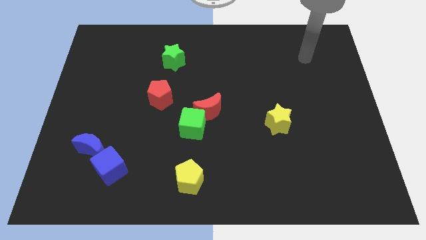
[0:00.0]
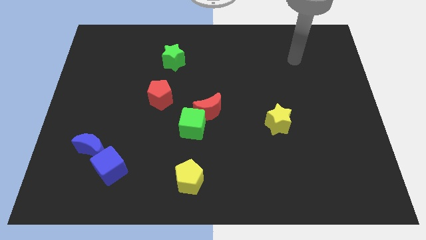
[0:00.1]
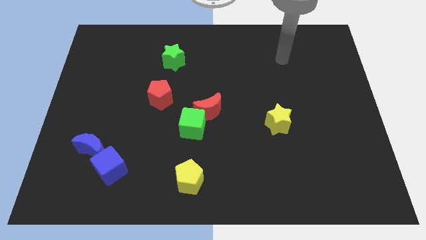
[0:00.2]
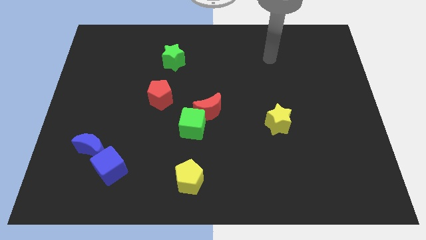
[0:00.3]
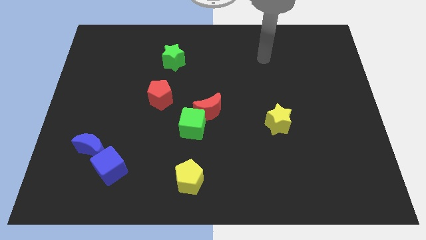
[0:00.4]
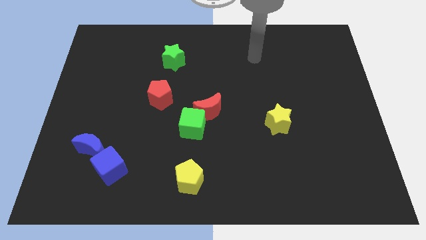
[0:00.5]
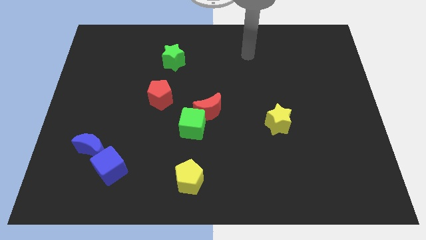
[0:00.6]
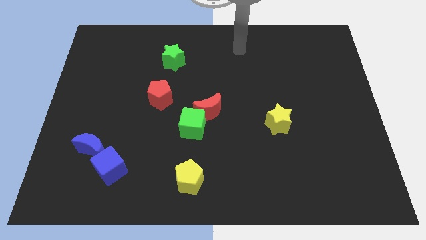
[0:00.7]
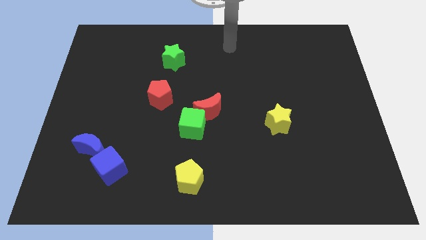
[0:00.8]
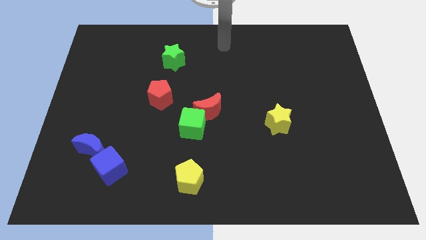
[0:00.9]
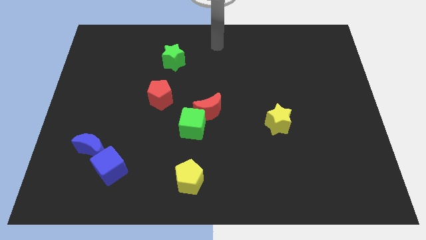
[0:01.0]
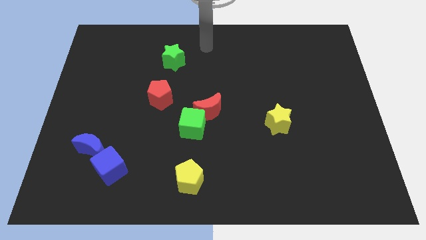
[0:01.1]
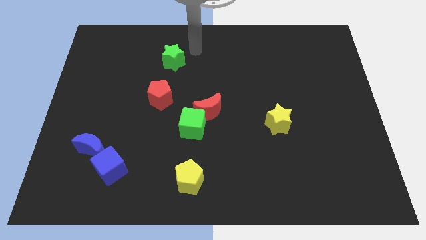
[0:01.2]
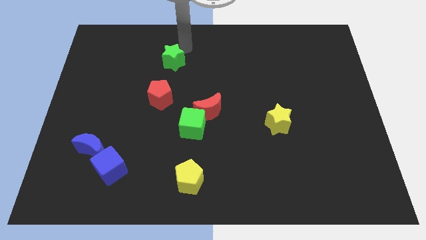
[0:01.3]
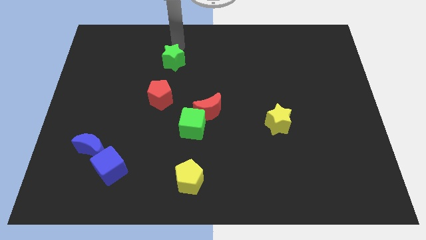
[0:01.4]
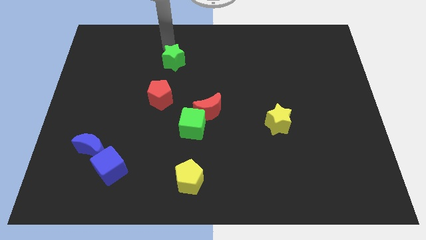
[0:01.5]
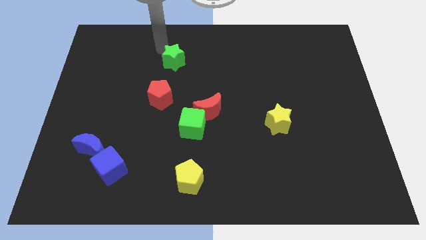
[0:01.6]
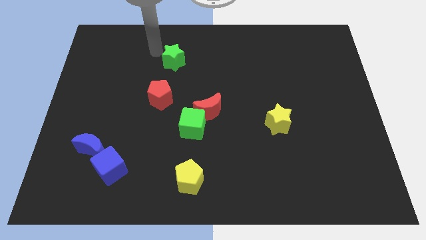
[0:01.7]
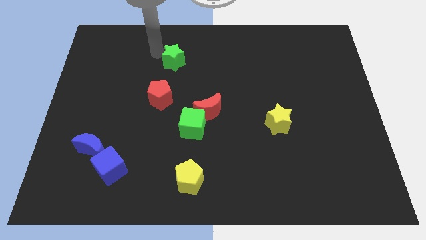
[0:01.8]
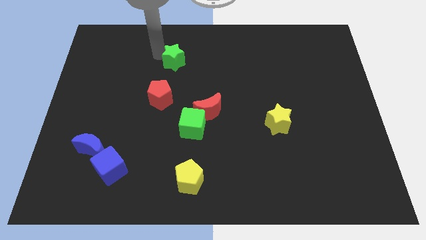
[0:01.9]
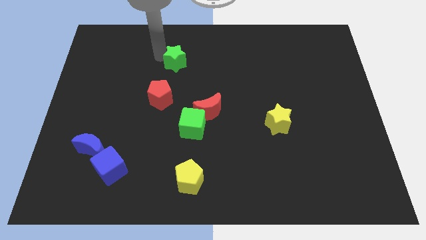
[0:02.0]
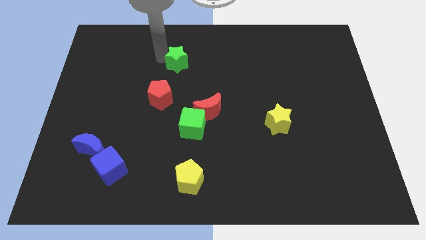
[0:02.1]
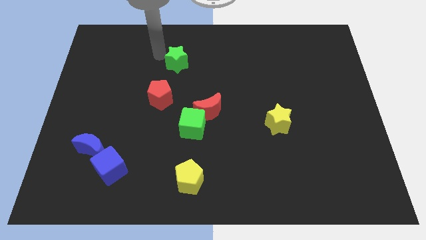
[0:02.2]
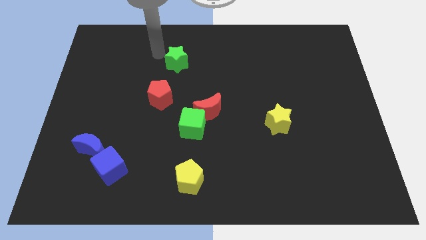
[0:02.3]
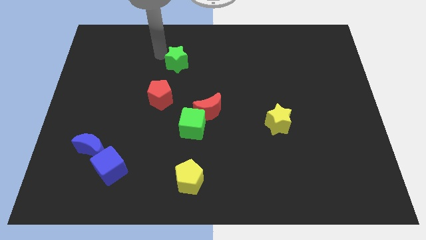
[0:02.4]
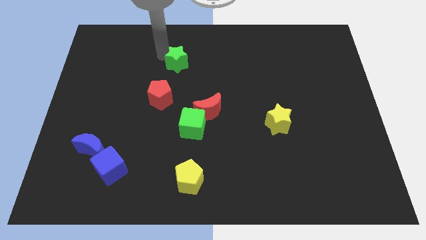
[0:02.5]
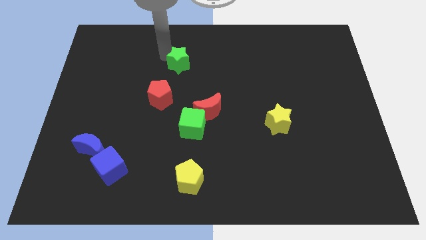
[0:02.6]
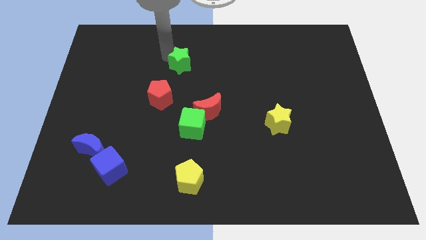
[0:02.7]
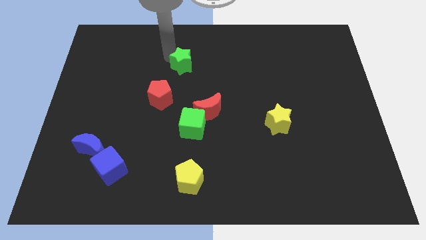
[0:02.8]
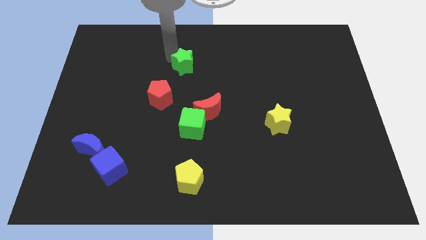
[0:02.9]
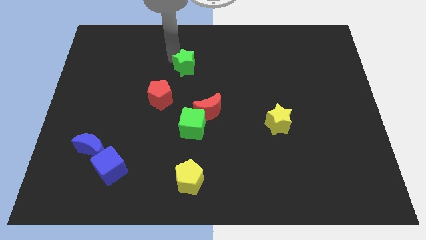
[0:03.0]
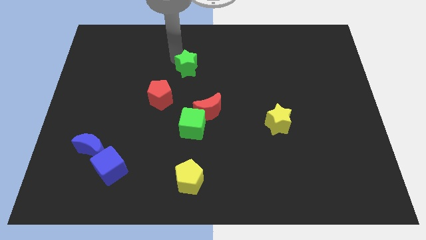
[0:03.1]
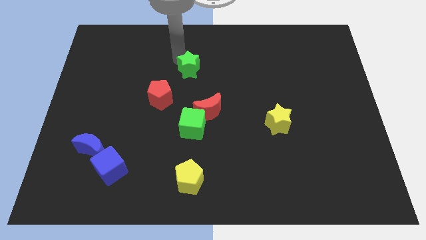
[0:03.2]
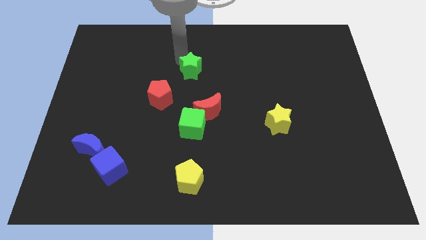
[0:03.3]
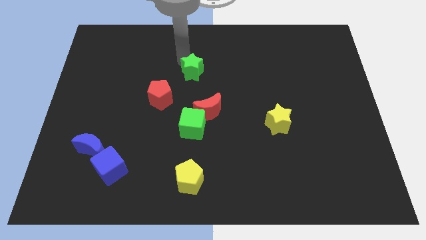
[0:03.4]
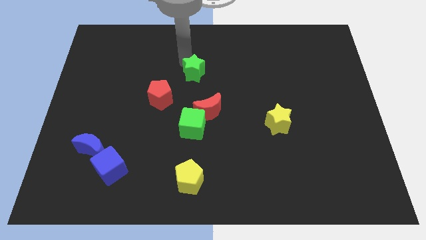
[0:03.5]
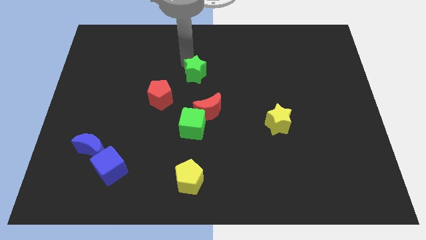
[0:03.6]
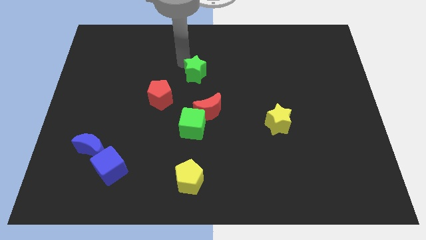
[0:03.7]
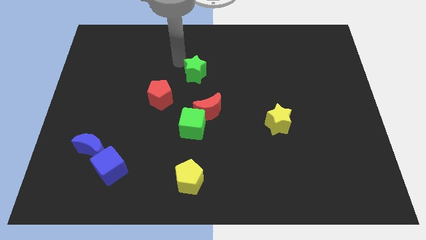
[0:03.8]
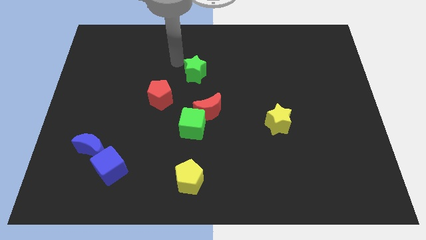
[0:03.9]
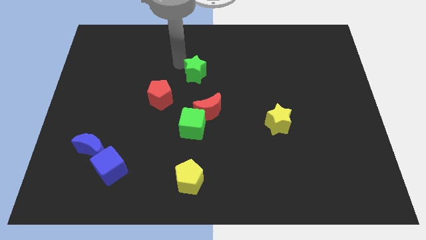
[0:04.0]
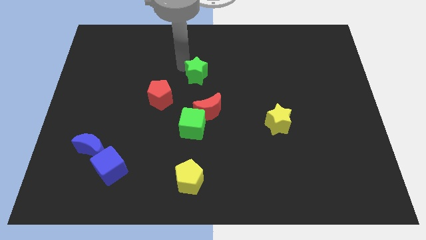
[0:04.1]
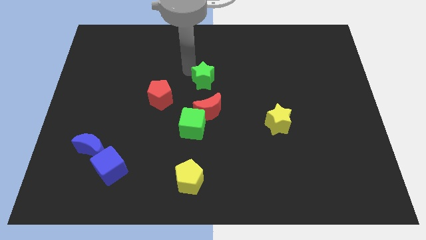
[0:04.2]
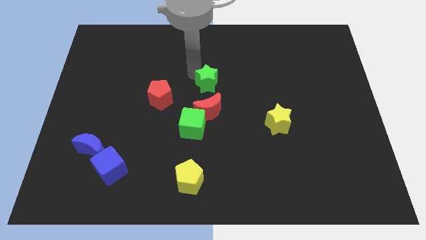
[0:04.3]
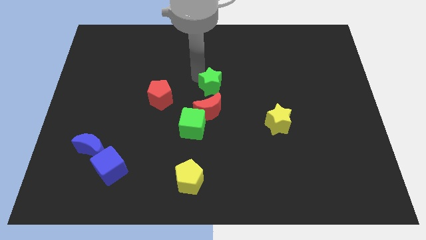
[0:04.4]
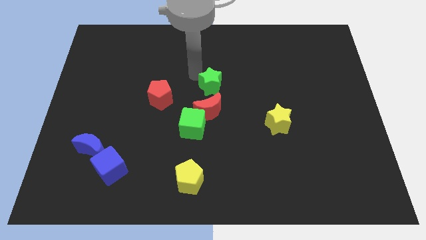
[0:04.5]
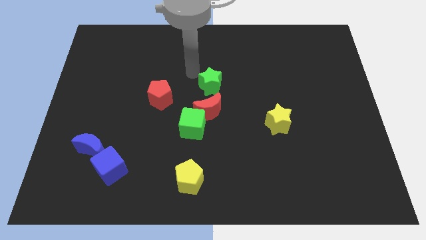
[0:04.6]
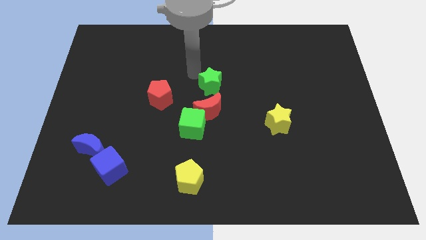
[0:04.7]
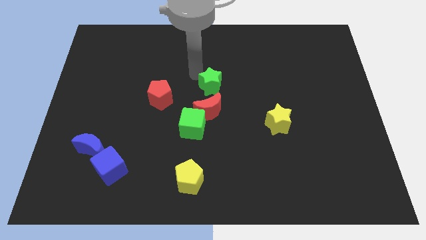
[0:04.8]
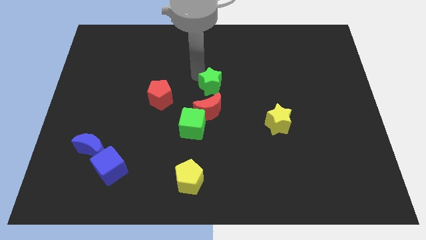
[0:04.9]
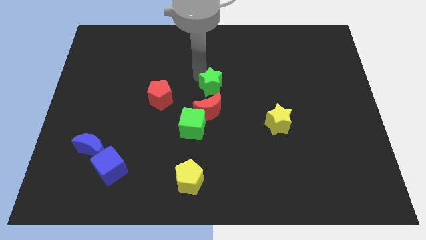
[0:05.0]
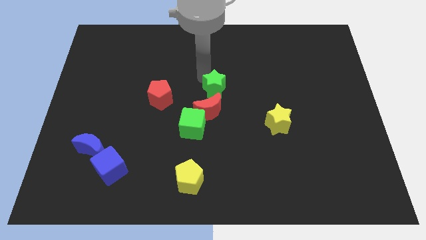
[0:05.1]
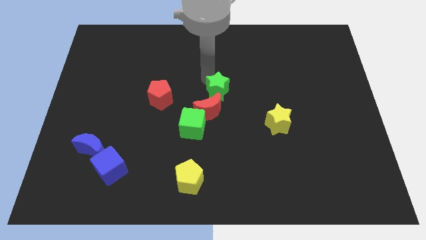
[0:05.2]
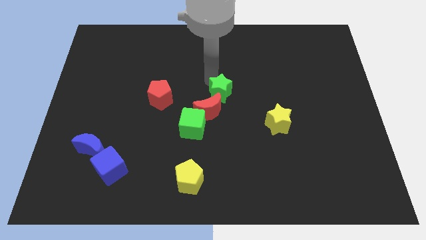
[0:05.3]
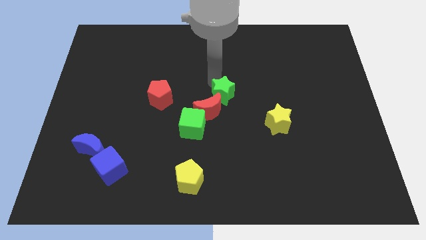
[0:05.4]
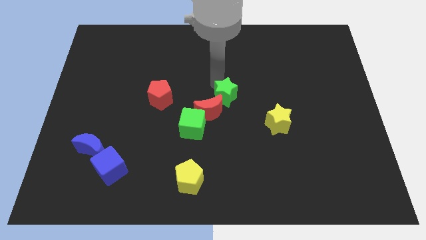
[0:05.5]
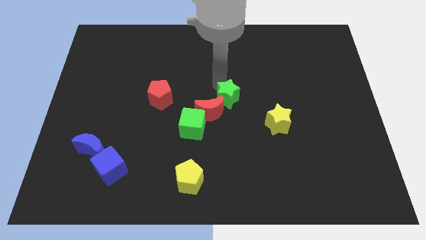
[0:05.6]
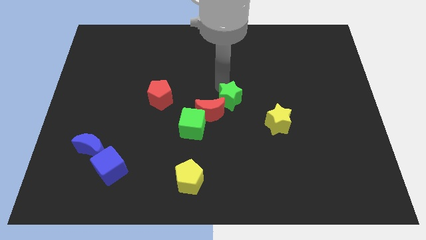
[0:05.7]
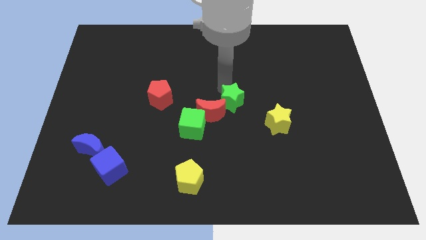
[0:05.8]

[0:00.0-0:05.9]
move the green star down and right diagonally

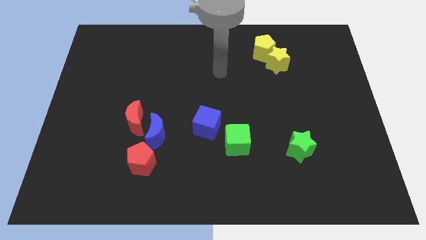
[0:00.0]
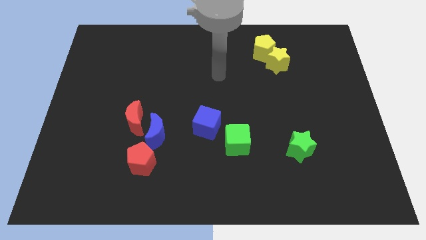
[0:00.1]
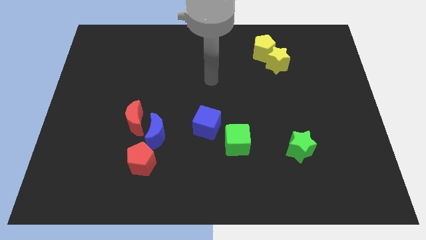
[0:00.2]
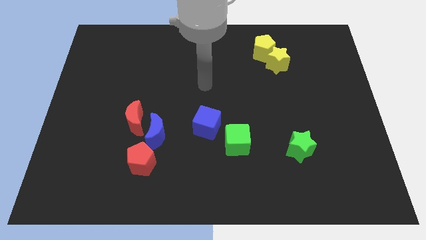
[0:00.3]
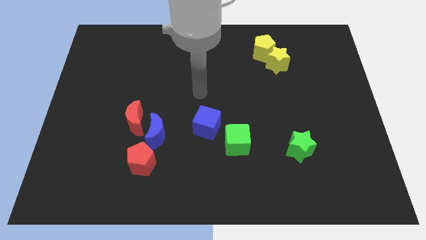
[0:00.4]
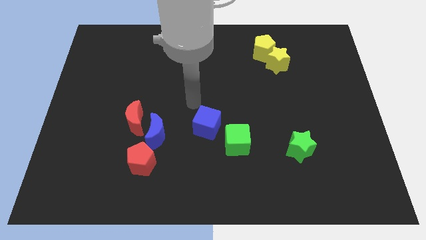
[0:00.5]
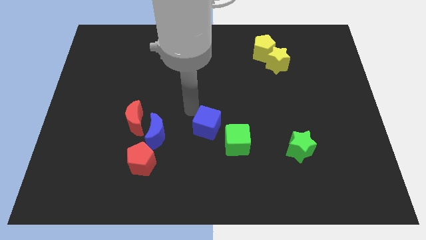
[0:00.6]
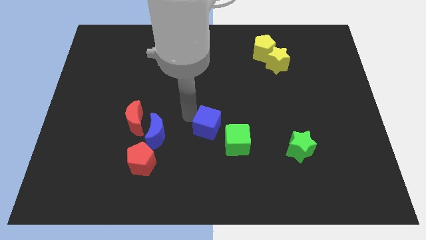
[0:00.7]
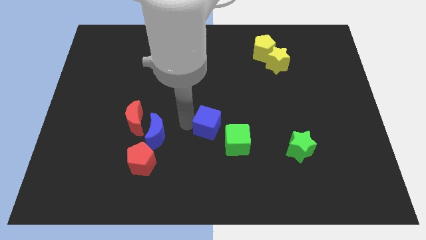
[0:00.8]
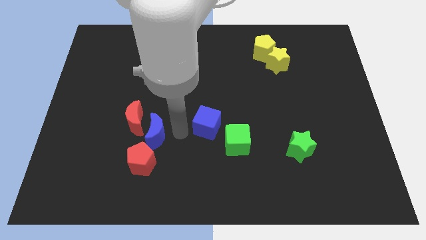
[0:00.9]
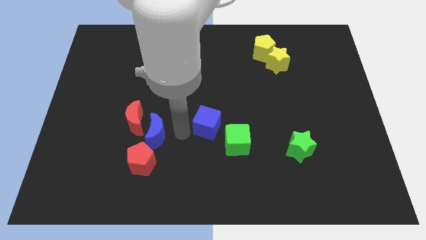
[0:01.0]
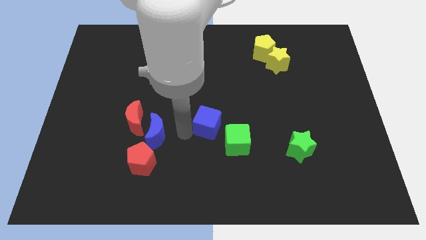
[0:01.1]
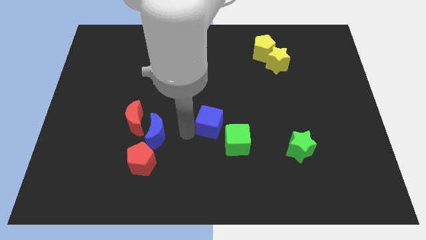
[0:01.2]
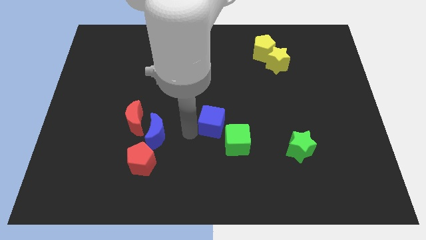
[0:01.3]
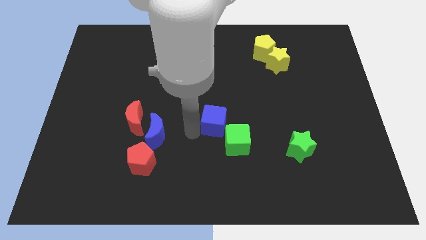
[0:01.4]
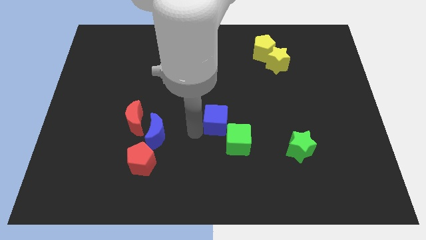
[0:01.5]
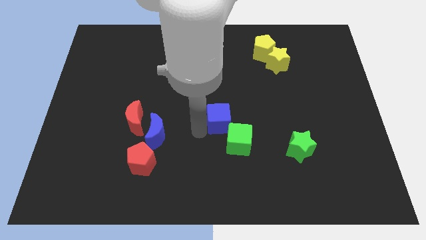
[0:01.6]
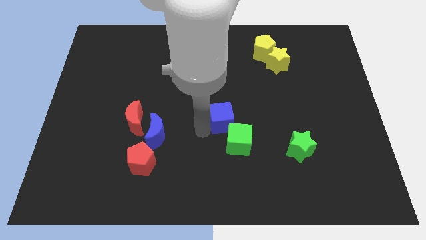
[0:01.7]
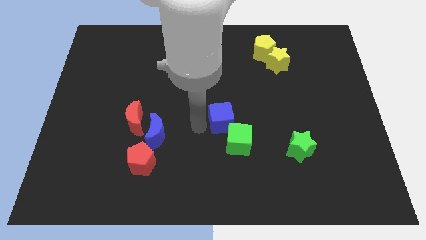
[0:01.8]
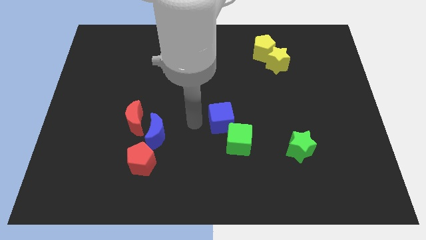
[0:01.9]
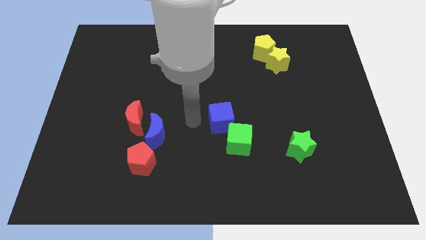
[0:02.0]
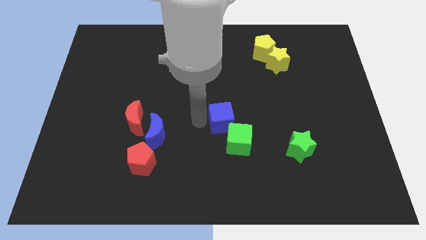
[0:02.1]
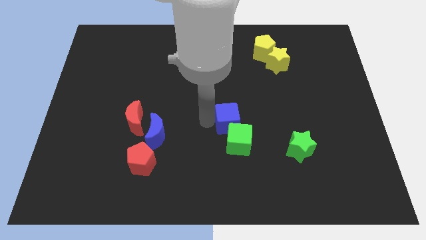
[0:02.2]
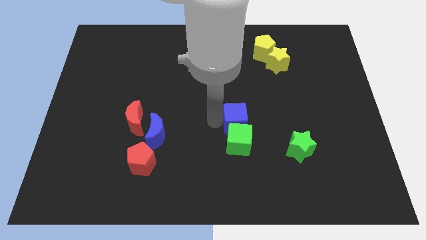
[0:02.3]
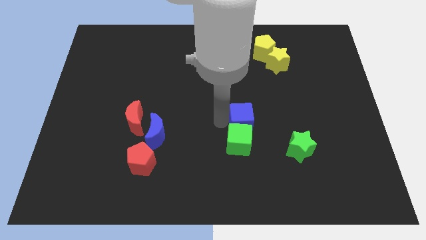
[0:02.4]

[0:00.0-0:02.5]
move the blue cube a little bit to the right
